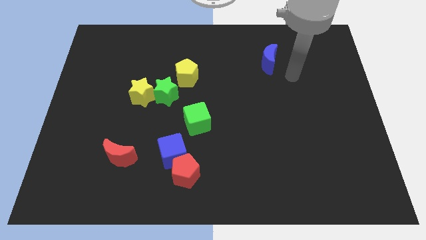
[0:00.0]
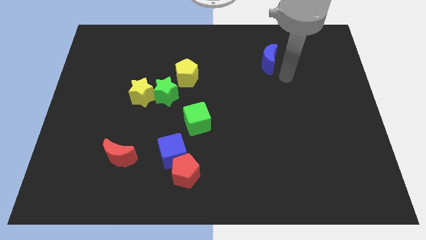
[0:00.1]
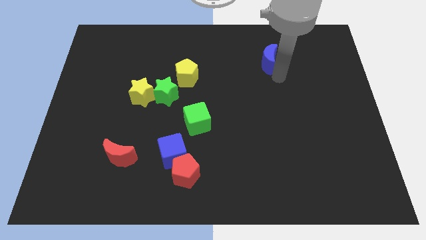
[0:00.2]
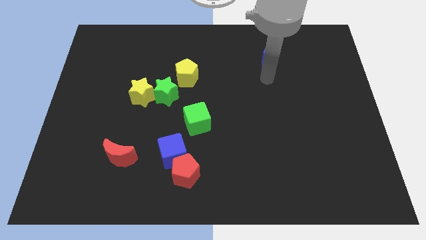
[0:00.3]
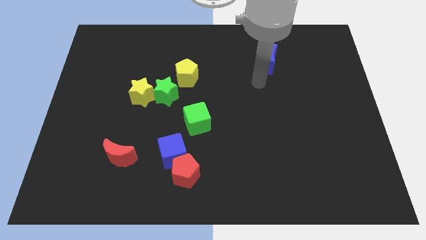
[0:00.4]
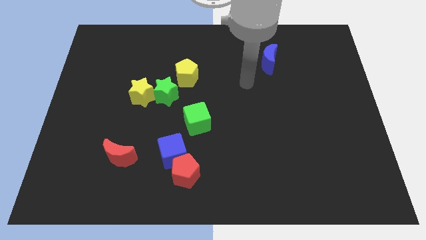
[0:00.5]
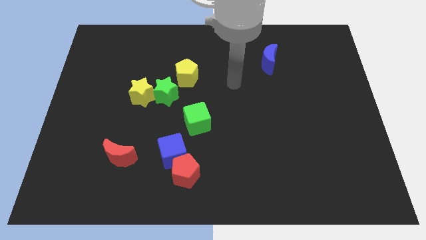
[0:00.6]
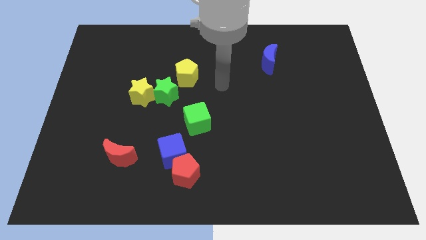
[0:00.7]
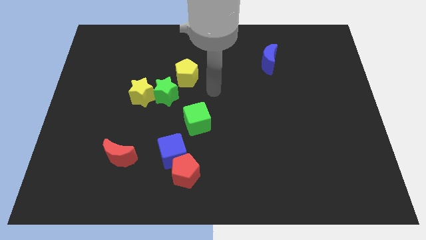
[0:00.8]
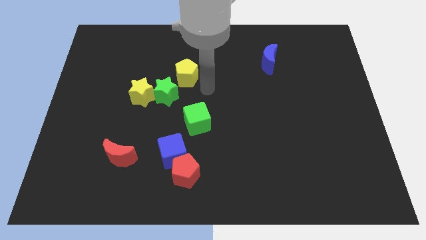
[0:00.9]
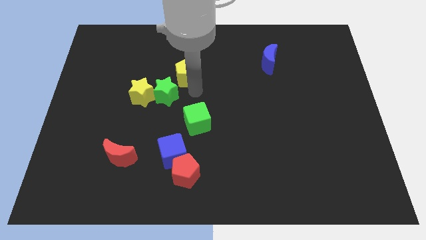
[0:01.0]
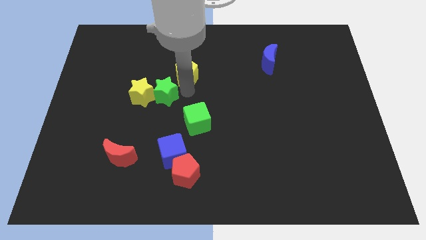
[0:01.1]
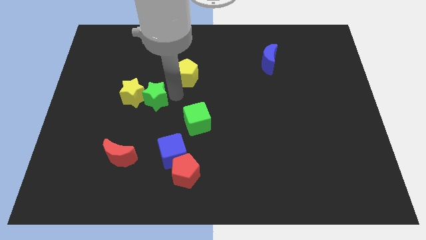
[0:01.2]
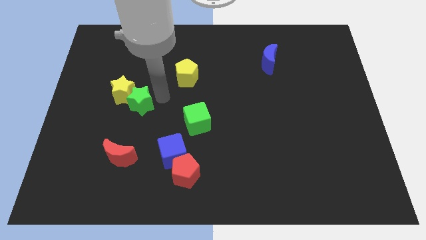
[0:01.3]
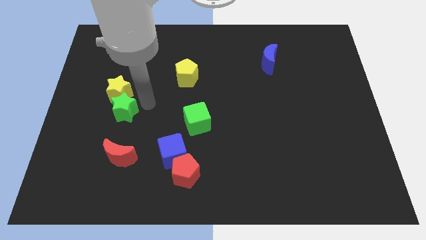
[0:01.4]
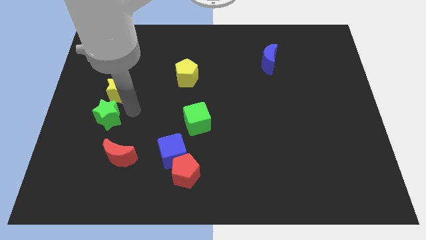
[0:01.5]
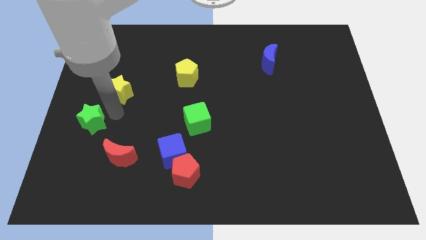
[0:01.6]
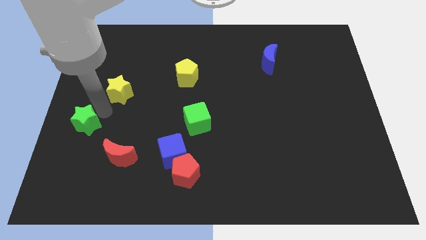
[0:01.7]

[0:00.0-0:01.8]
move the yellow star away from the green star

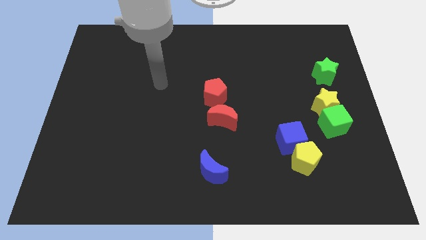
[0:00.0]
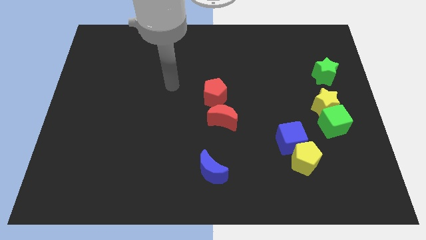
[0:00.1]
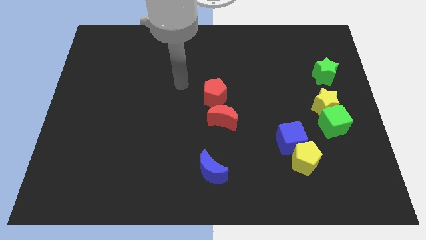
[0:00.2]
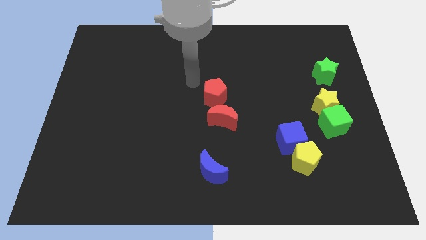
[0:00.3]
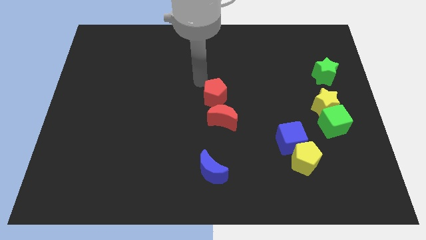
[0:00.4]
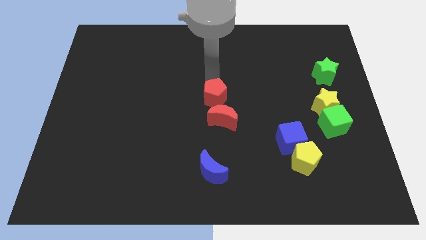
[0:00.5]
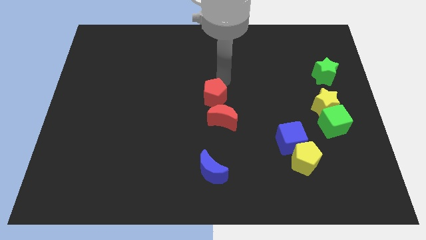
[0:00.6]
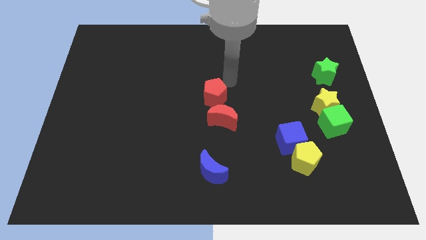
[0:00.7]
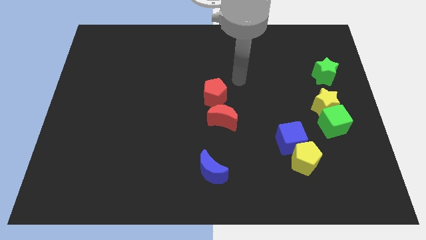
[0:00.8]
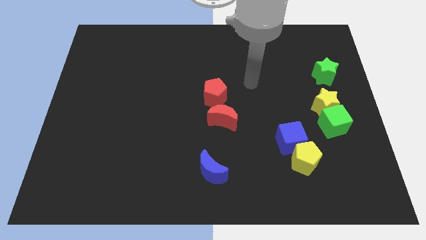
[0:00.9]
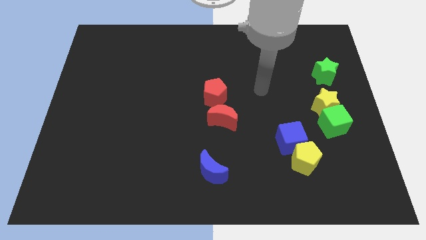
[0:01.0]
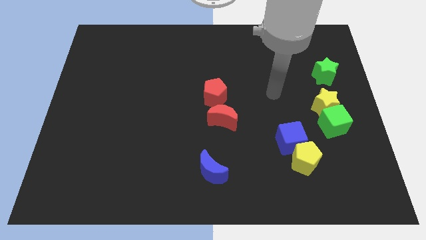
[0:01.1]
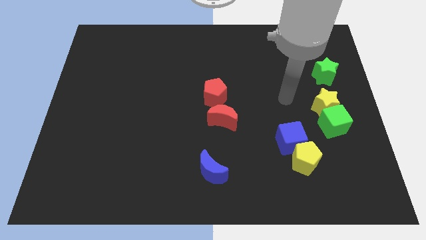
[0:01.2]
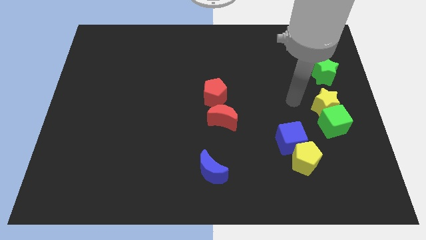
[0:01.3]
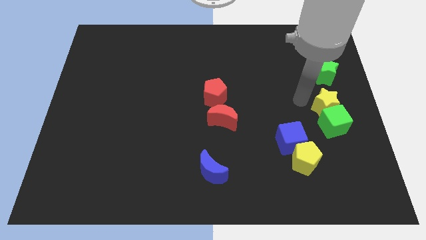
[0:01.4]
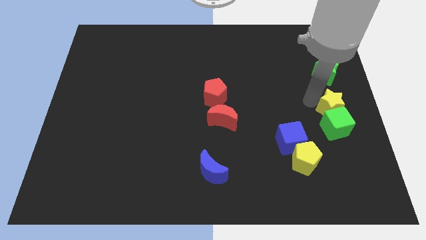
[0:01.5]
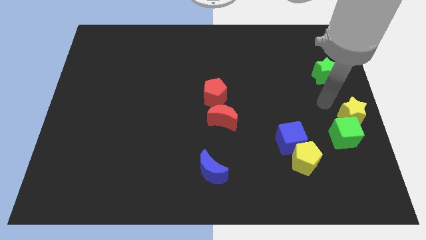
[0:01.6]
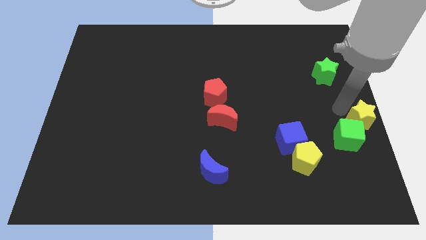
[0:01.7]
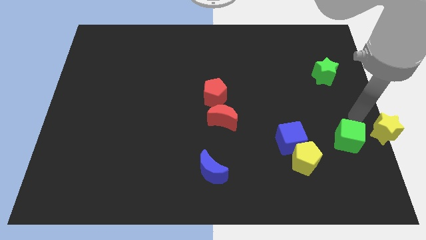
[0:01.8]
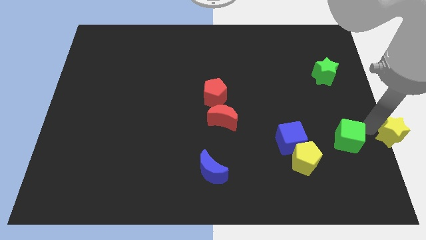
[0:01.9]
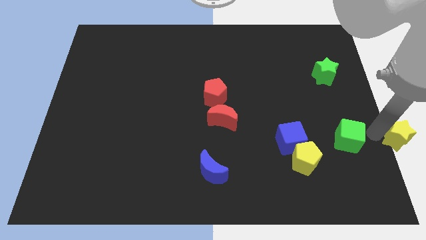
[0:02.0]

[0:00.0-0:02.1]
move the green cube away from the yellow star

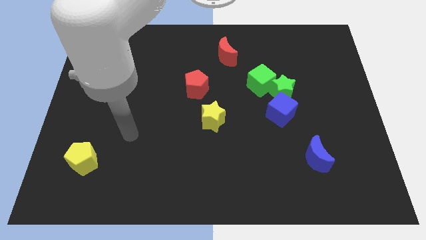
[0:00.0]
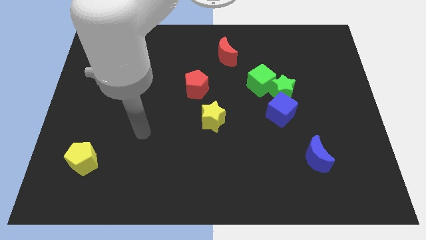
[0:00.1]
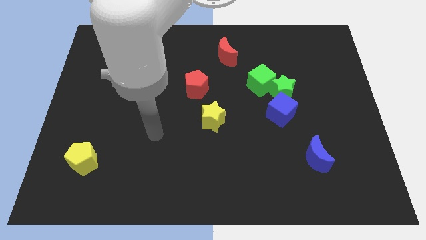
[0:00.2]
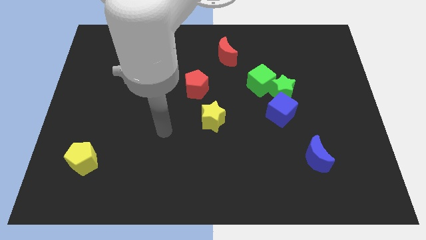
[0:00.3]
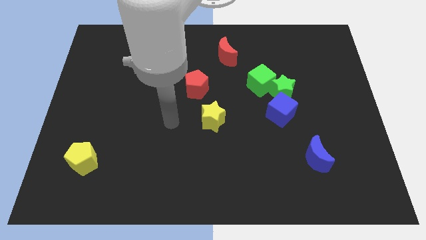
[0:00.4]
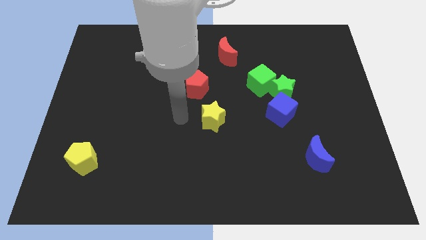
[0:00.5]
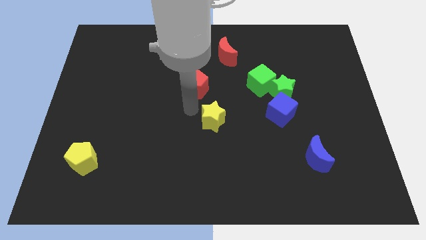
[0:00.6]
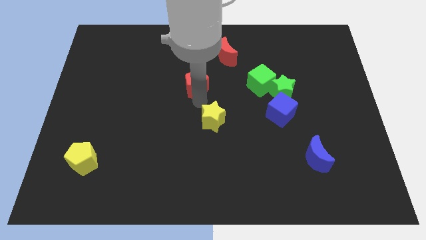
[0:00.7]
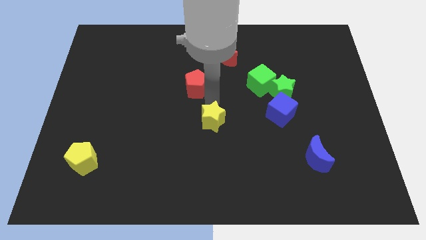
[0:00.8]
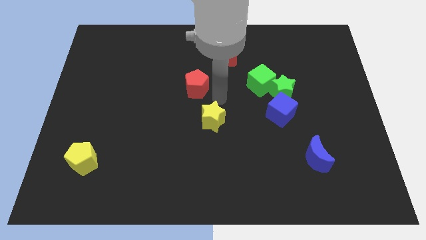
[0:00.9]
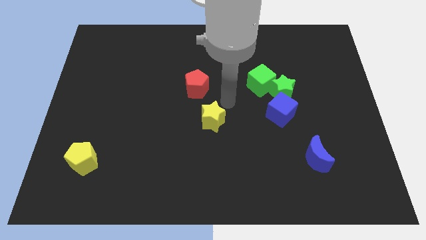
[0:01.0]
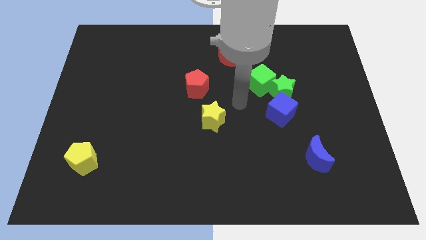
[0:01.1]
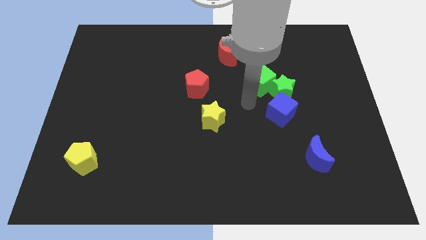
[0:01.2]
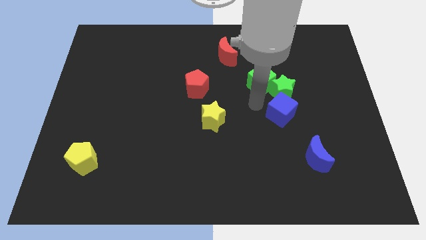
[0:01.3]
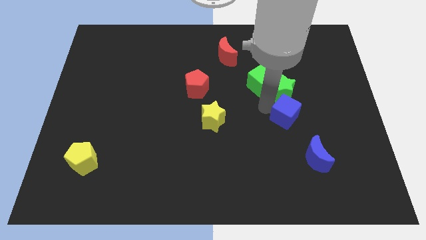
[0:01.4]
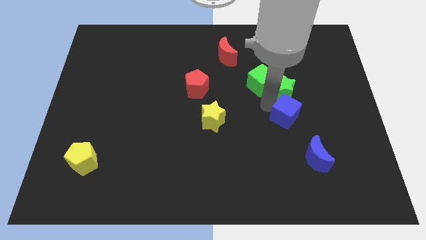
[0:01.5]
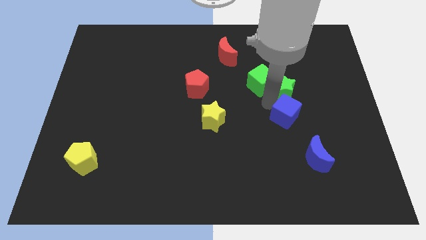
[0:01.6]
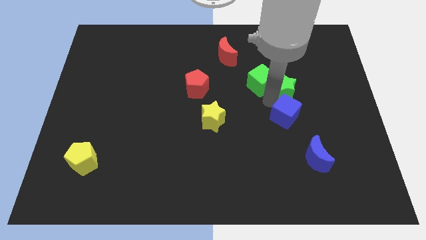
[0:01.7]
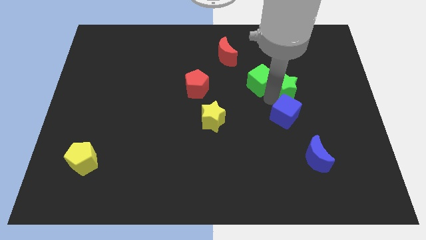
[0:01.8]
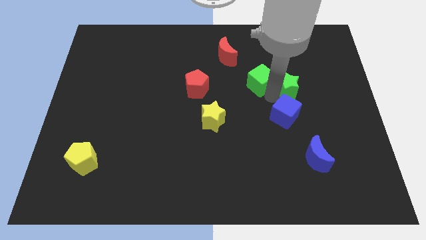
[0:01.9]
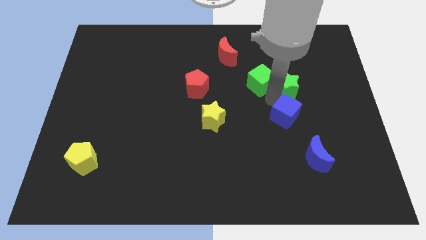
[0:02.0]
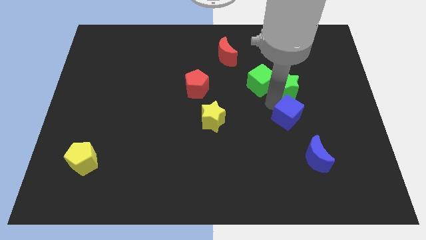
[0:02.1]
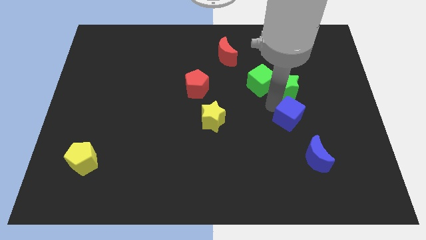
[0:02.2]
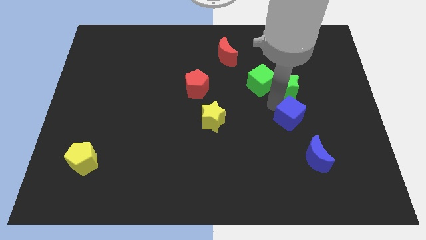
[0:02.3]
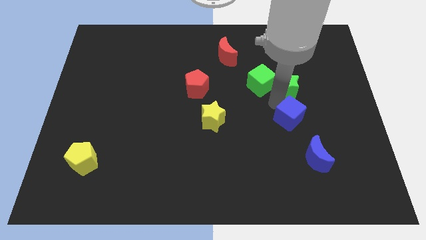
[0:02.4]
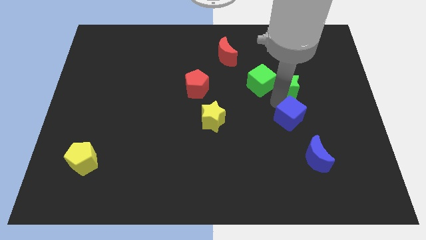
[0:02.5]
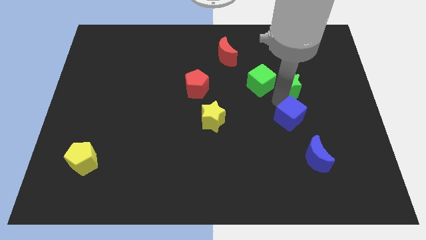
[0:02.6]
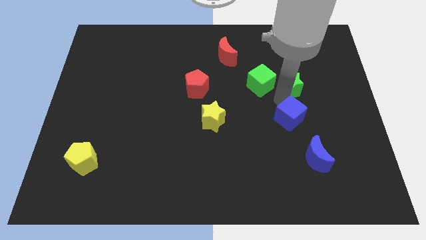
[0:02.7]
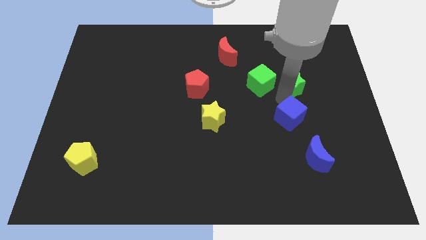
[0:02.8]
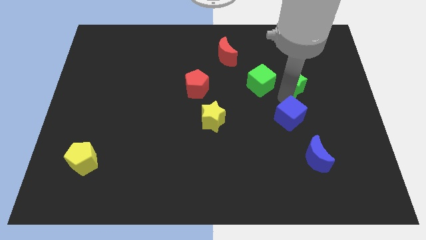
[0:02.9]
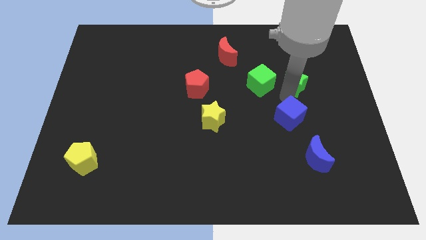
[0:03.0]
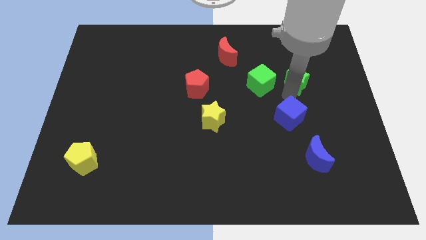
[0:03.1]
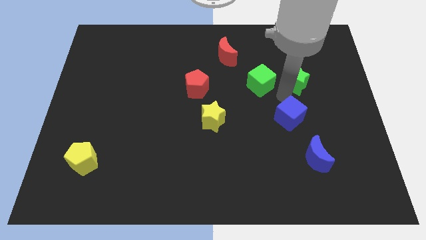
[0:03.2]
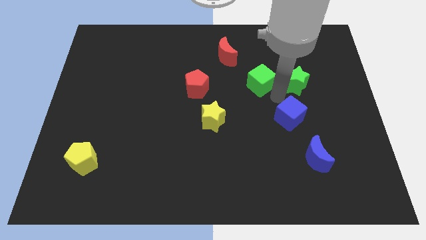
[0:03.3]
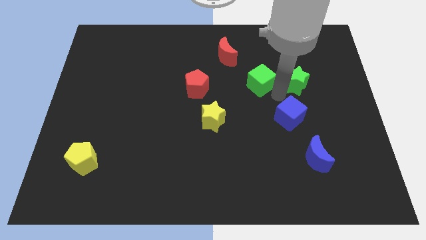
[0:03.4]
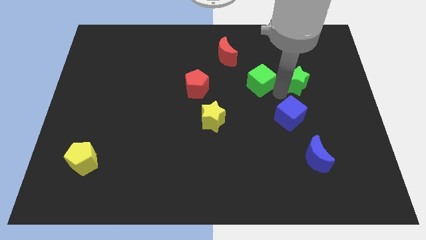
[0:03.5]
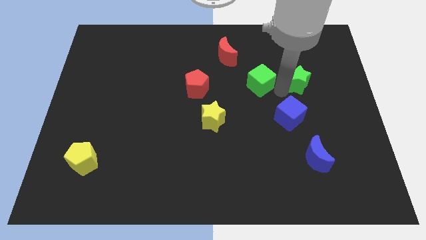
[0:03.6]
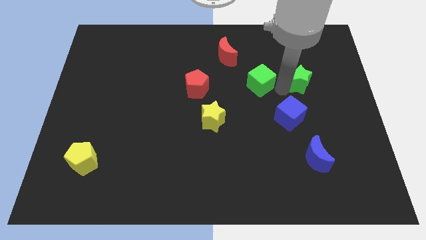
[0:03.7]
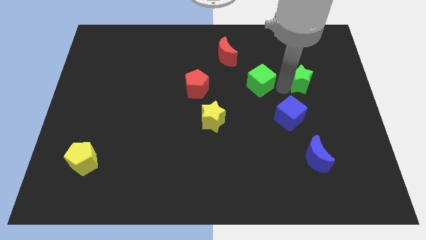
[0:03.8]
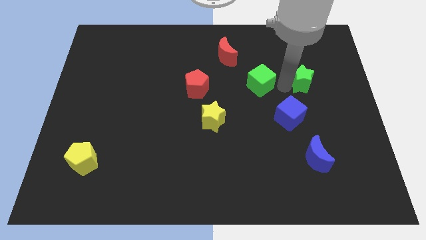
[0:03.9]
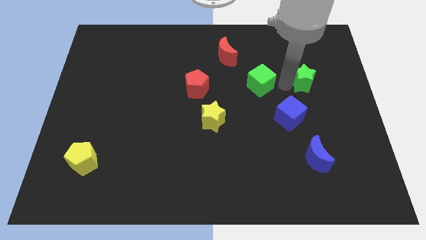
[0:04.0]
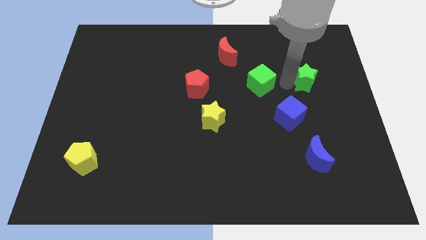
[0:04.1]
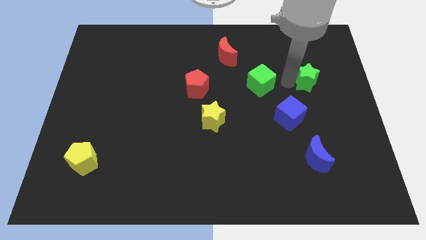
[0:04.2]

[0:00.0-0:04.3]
move the green star away from the green cube and blue cube

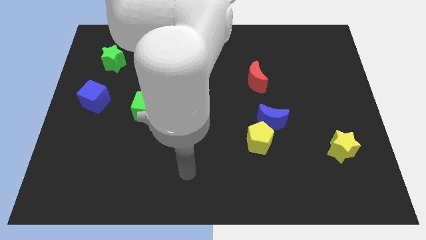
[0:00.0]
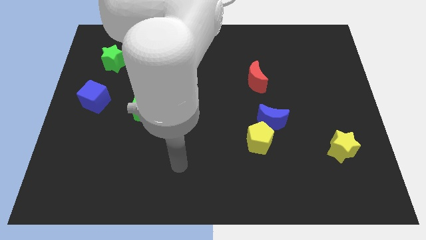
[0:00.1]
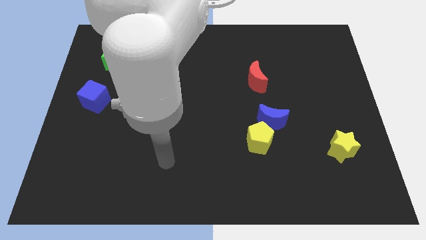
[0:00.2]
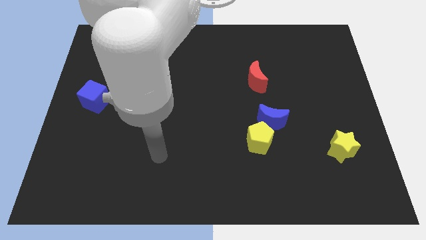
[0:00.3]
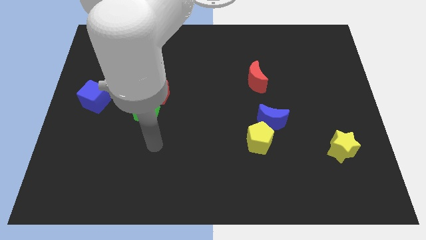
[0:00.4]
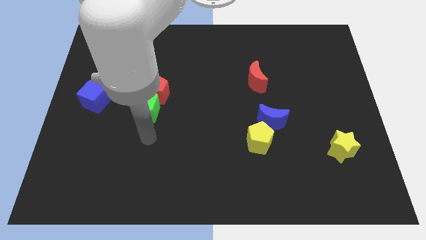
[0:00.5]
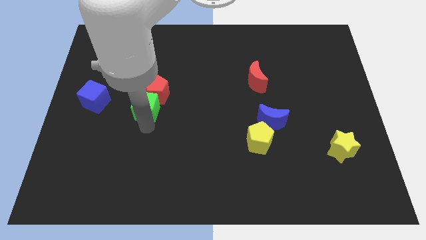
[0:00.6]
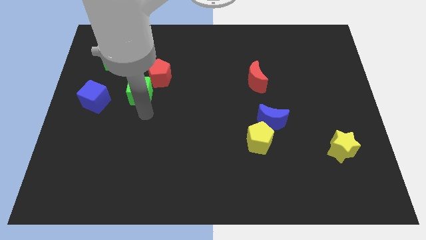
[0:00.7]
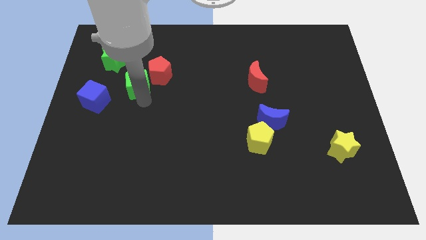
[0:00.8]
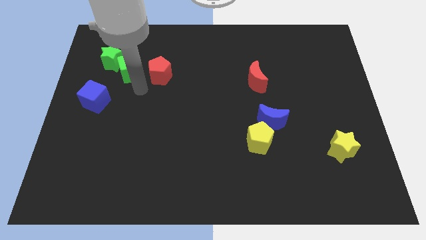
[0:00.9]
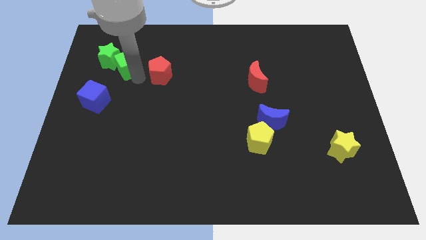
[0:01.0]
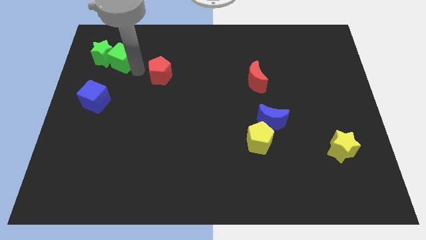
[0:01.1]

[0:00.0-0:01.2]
pull the red pentagon apart from the green cube

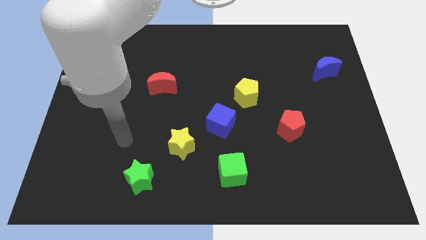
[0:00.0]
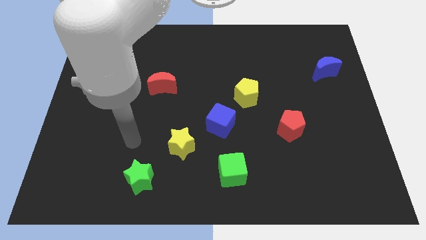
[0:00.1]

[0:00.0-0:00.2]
pull the blue cube apart from the yellow pentagon
